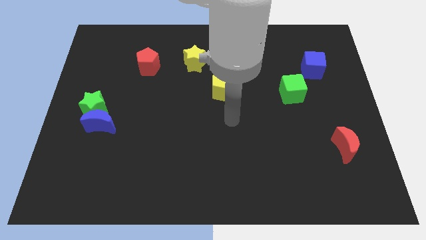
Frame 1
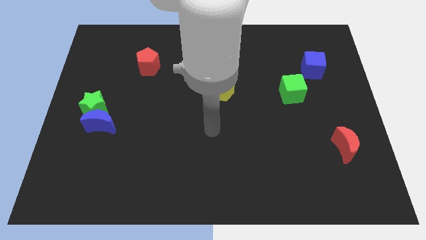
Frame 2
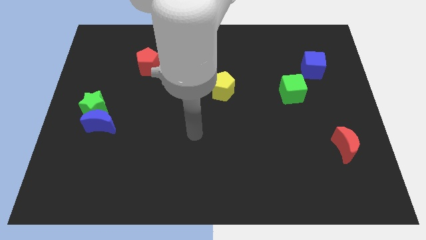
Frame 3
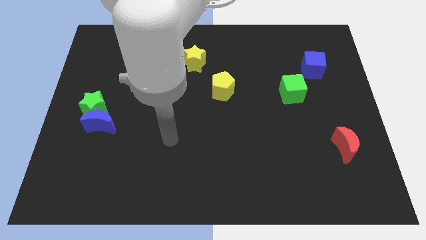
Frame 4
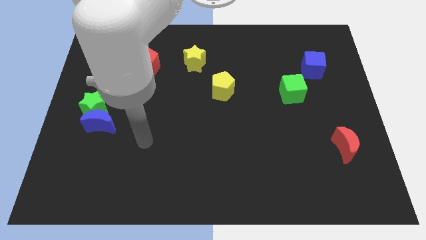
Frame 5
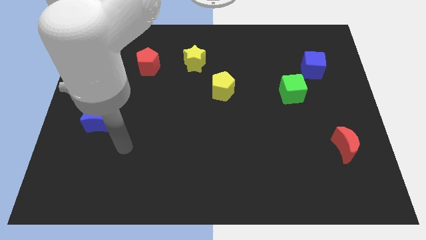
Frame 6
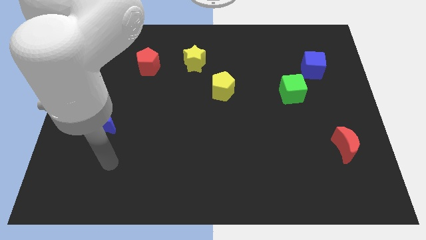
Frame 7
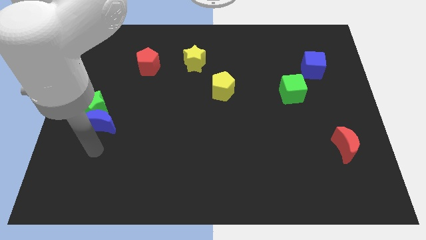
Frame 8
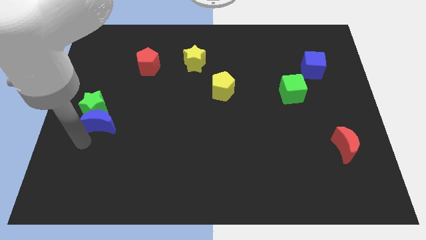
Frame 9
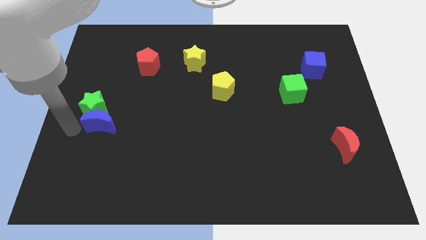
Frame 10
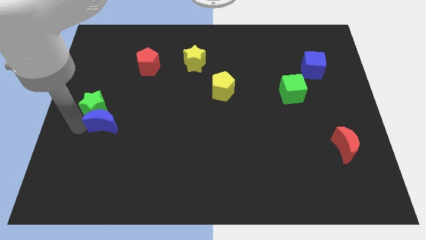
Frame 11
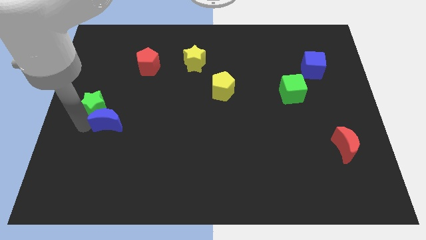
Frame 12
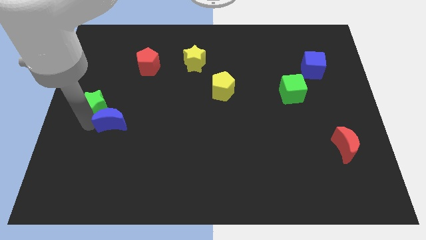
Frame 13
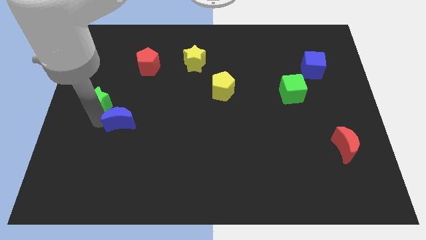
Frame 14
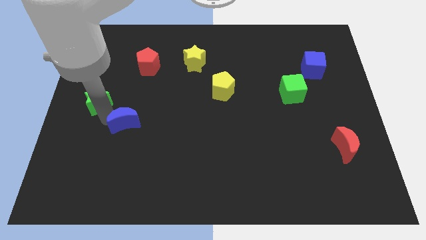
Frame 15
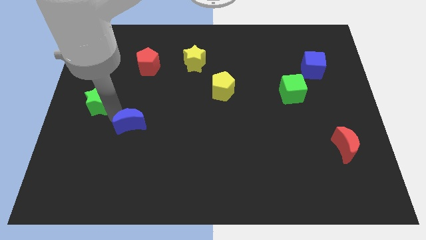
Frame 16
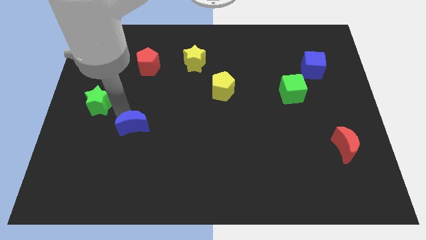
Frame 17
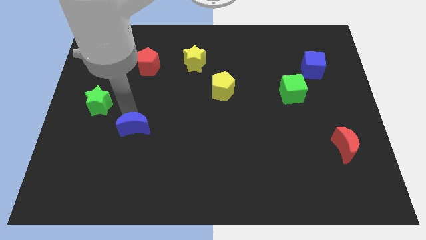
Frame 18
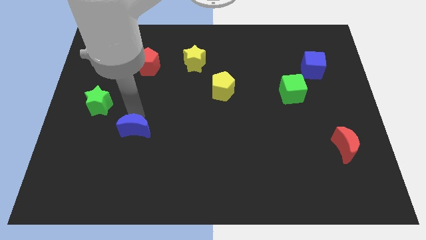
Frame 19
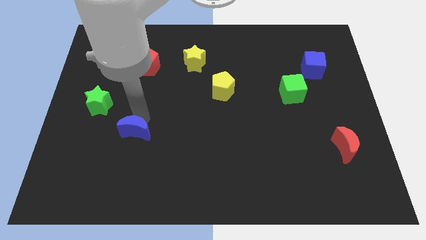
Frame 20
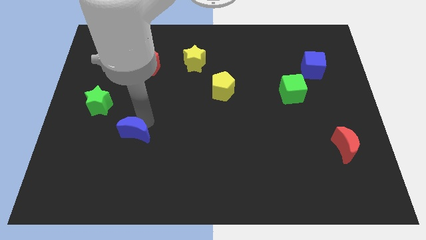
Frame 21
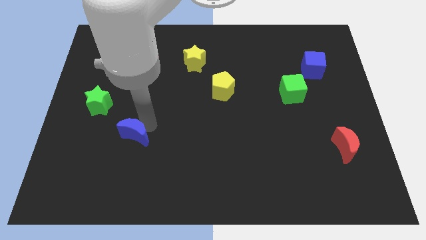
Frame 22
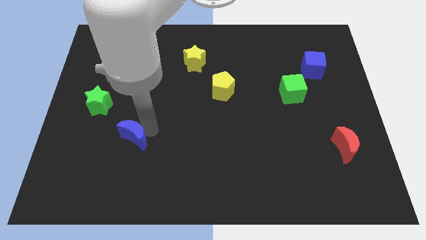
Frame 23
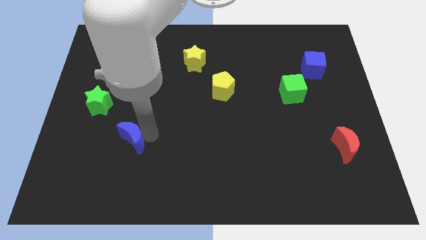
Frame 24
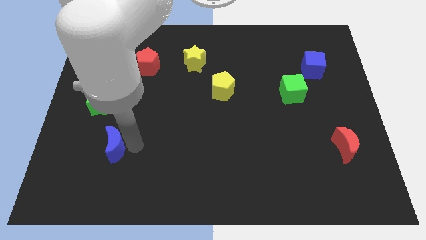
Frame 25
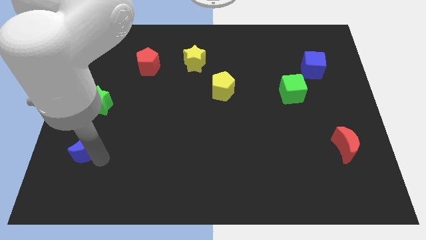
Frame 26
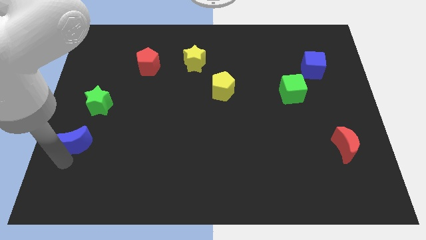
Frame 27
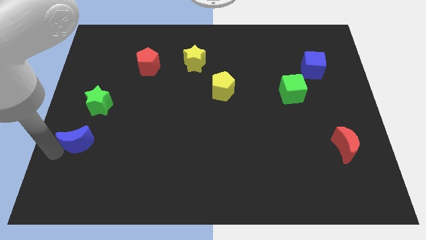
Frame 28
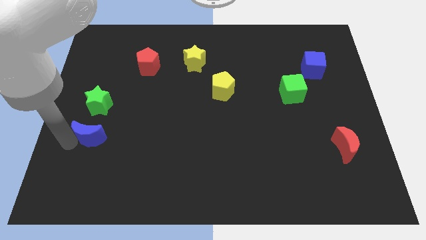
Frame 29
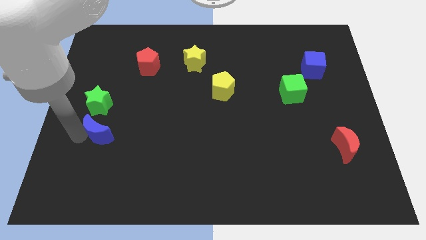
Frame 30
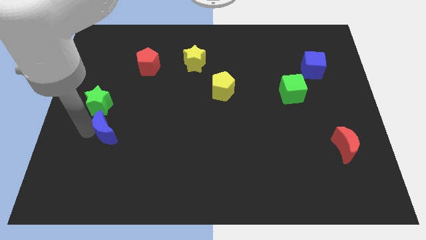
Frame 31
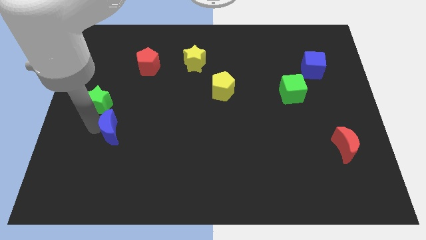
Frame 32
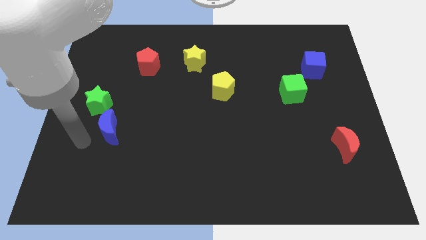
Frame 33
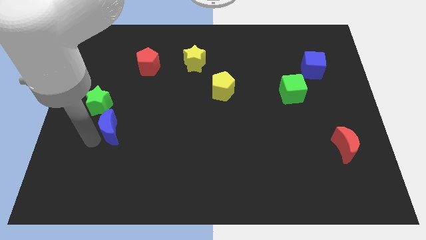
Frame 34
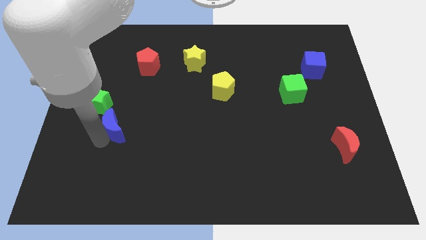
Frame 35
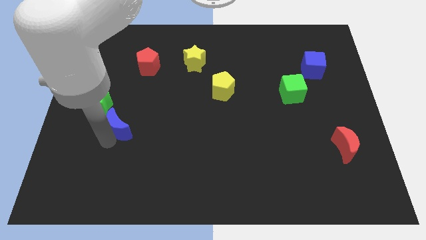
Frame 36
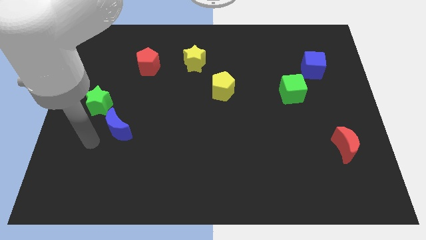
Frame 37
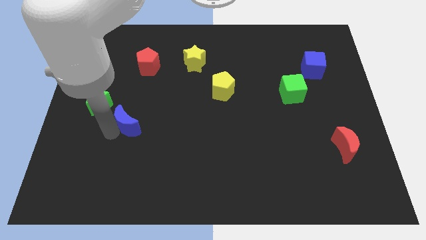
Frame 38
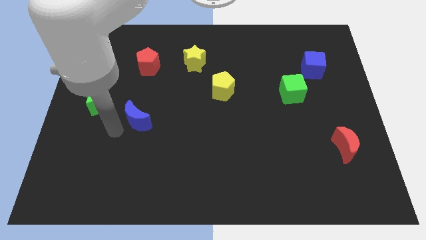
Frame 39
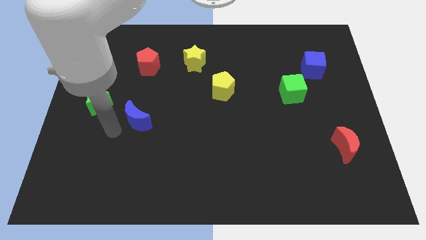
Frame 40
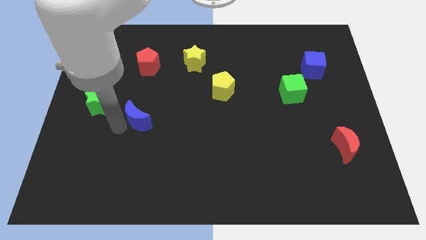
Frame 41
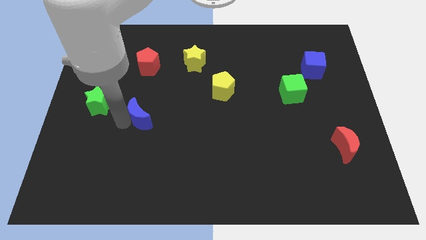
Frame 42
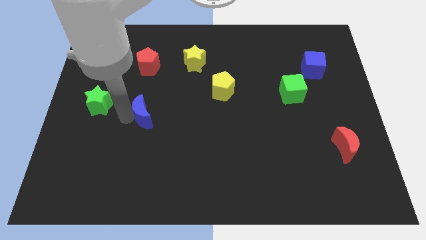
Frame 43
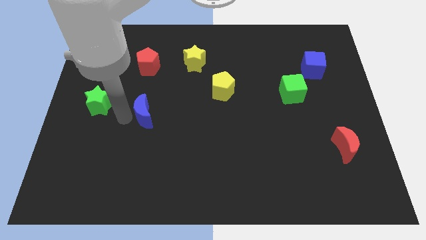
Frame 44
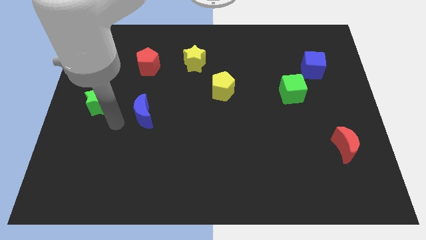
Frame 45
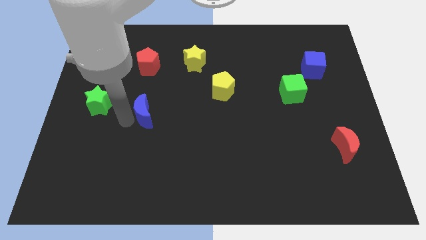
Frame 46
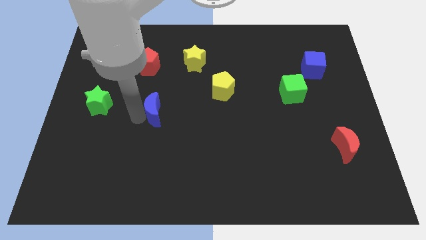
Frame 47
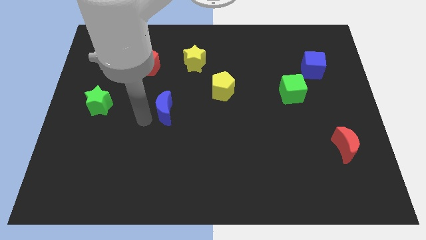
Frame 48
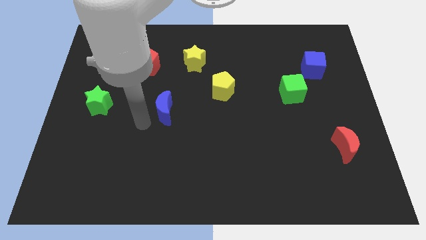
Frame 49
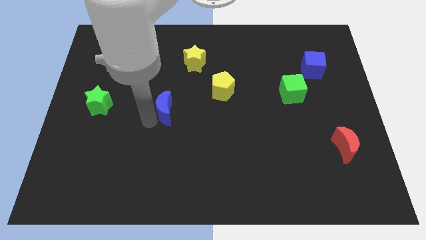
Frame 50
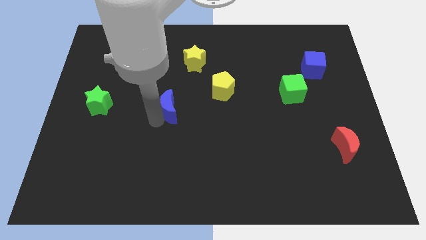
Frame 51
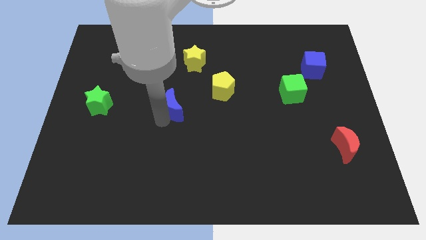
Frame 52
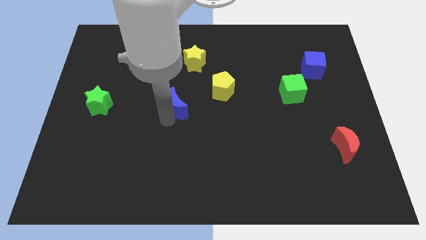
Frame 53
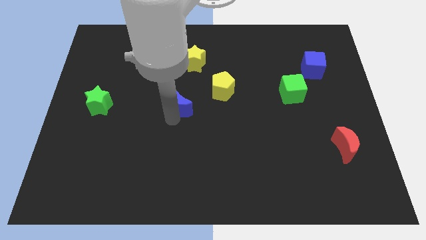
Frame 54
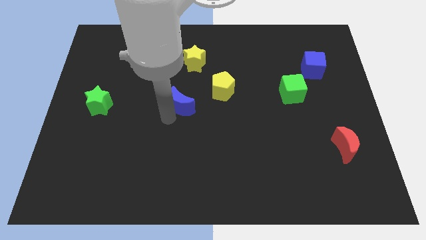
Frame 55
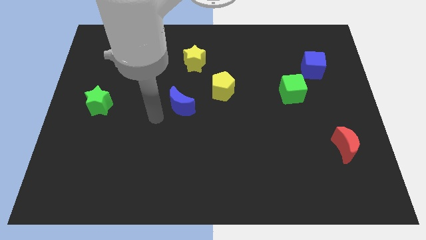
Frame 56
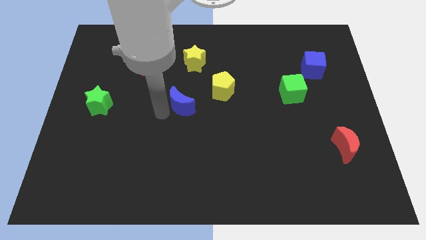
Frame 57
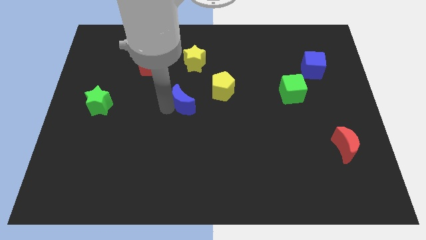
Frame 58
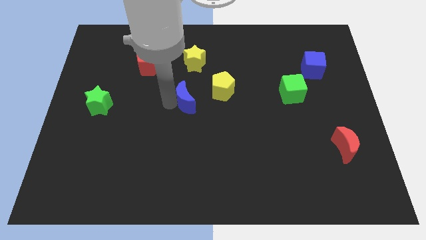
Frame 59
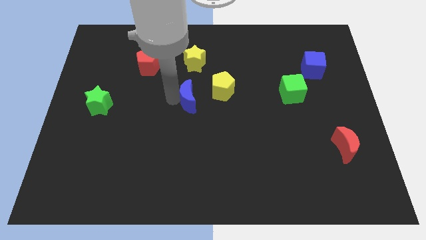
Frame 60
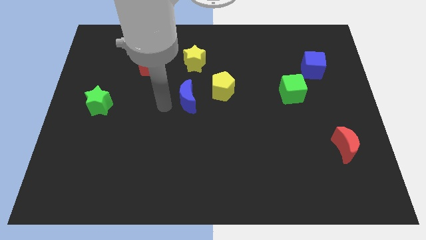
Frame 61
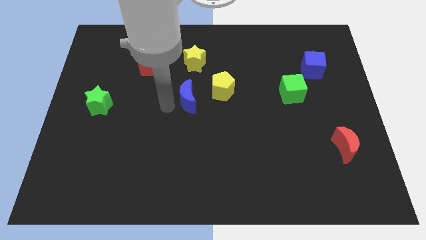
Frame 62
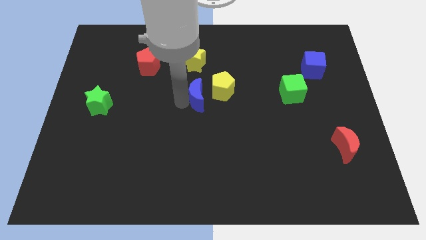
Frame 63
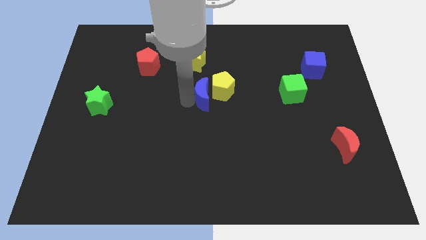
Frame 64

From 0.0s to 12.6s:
move the blue moon towards the yellow pentagon

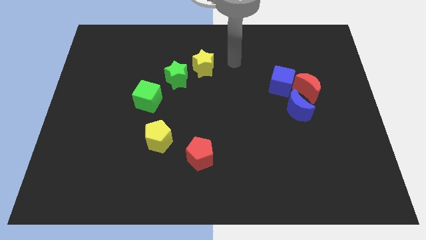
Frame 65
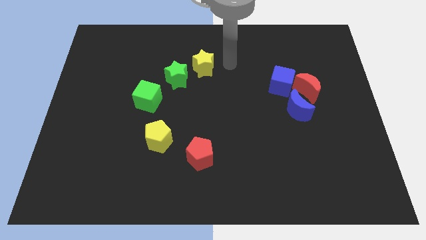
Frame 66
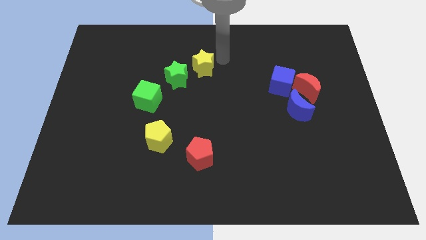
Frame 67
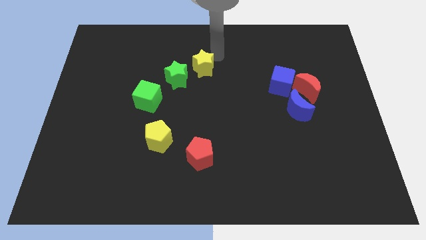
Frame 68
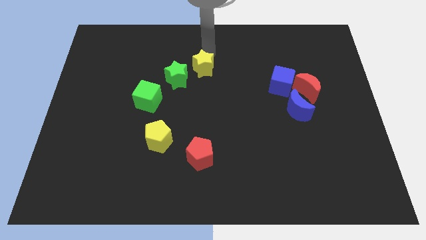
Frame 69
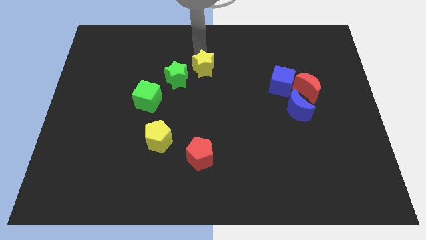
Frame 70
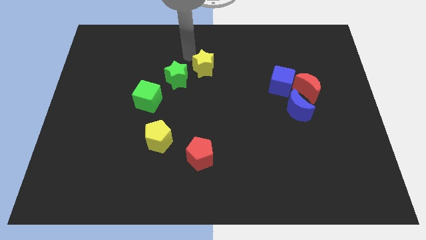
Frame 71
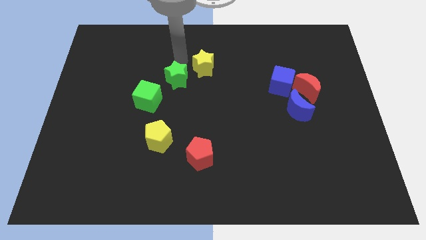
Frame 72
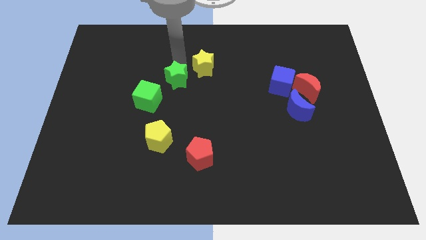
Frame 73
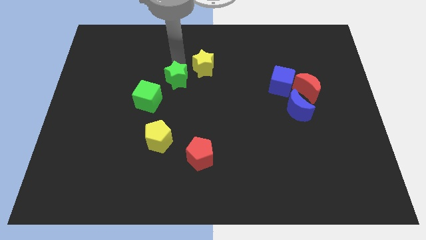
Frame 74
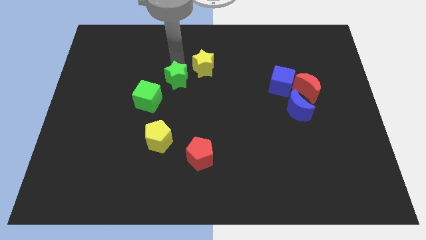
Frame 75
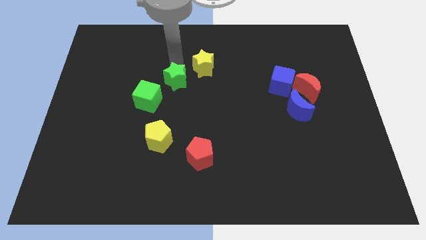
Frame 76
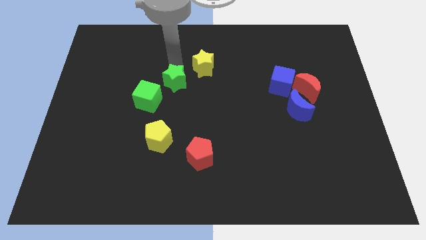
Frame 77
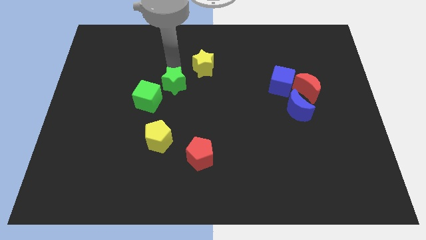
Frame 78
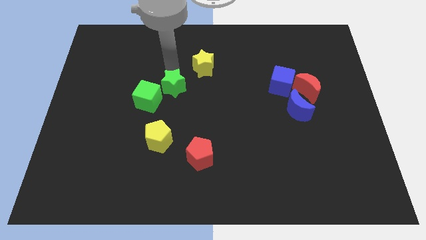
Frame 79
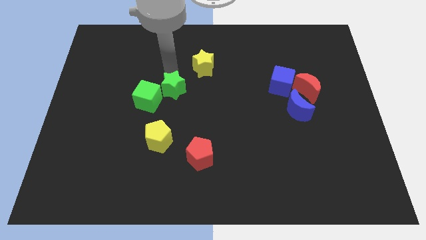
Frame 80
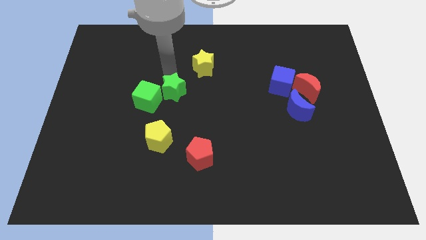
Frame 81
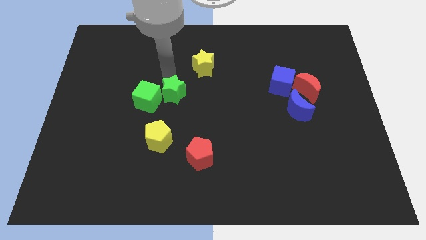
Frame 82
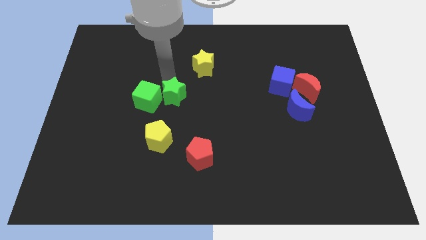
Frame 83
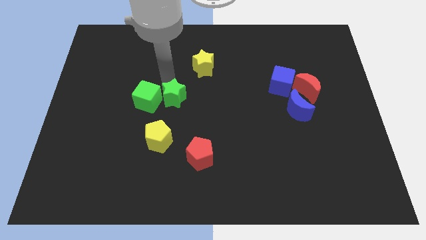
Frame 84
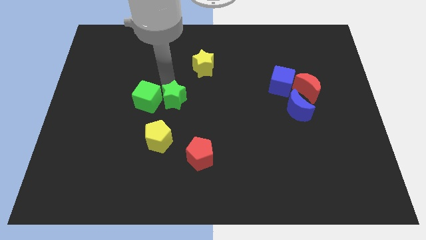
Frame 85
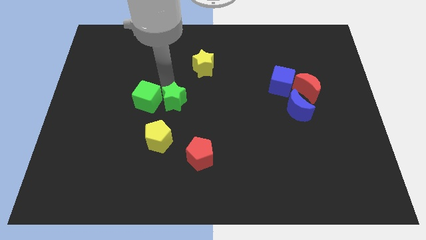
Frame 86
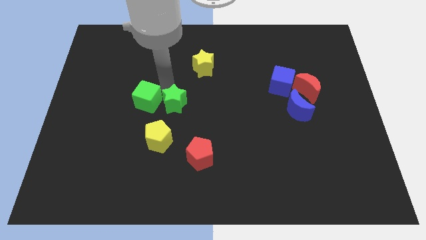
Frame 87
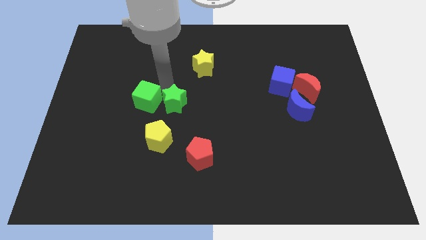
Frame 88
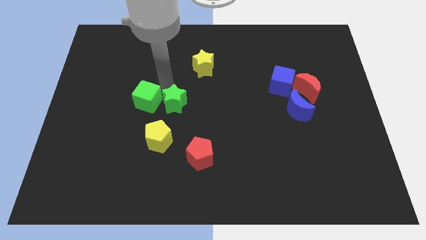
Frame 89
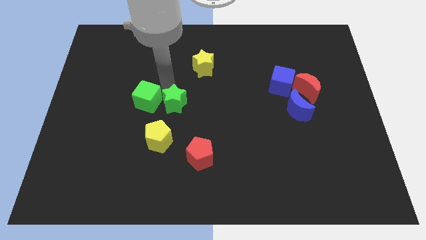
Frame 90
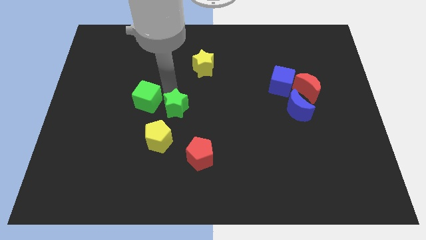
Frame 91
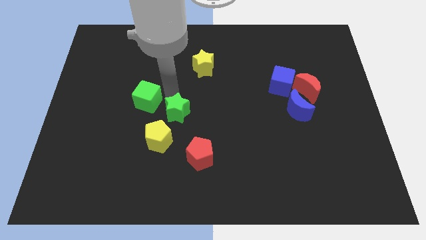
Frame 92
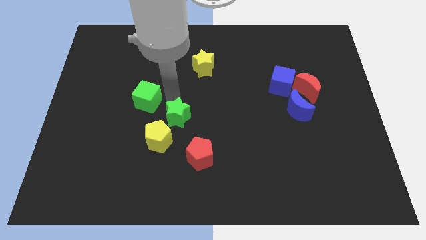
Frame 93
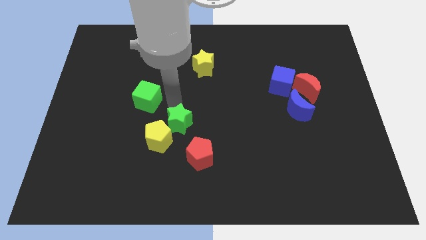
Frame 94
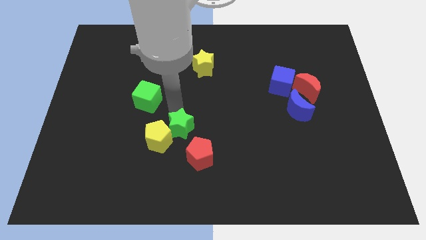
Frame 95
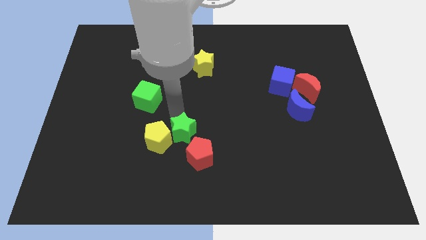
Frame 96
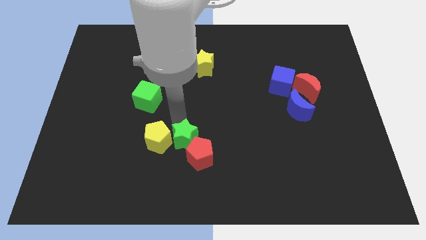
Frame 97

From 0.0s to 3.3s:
push the green star towards the red pentagon
